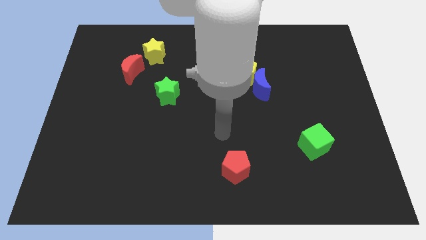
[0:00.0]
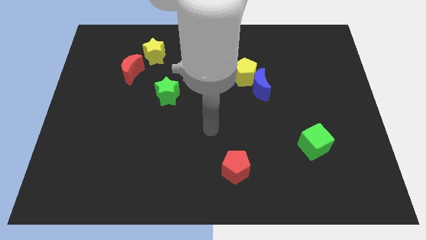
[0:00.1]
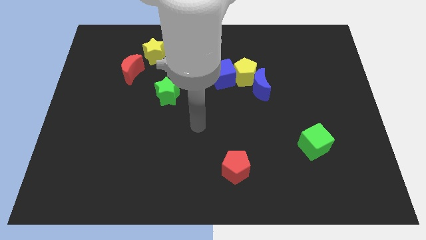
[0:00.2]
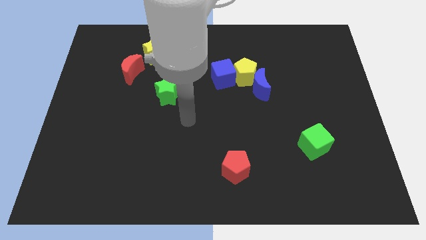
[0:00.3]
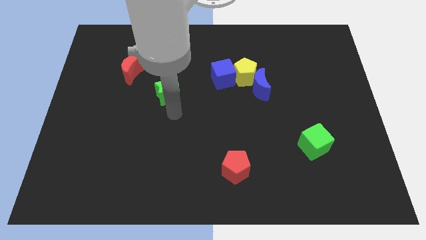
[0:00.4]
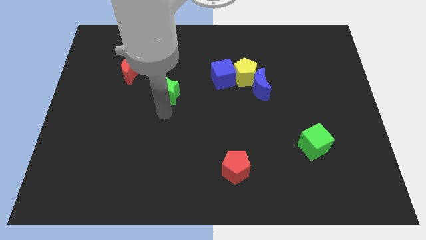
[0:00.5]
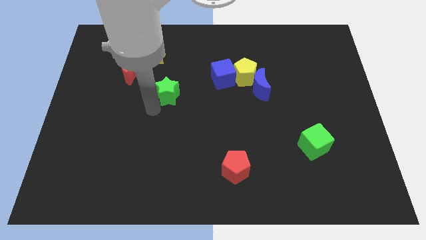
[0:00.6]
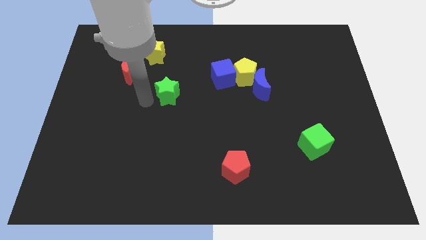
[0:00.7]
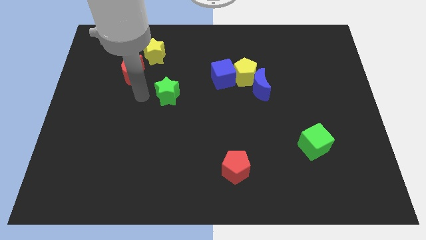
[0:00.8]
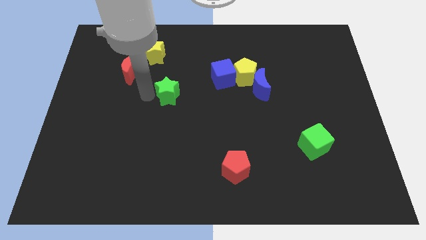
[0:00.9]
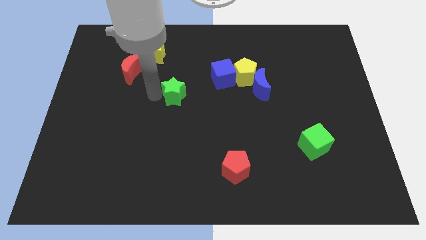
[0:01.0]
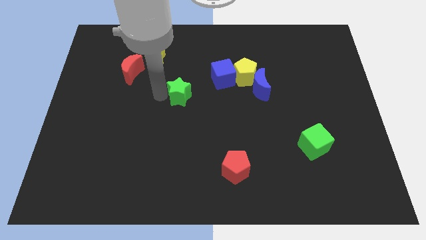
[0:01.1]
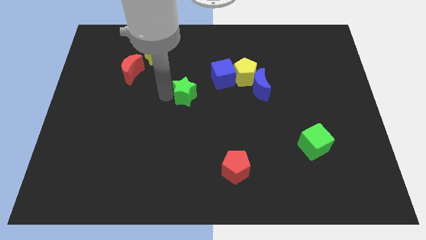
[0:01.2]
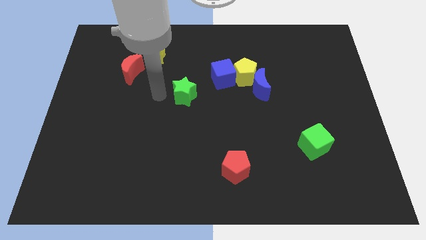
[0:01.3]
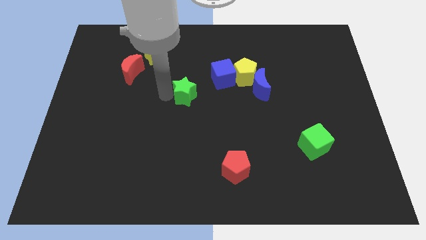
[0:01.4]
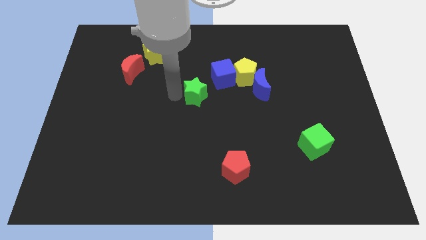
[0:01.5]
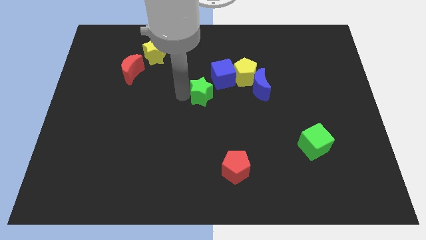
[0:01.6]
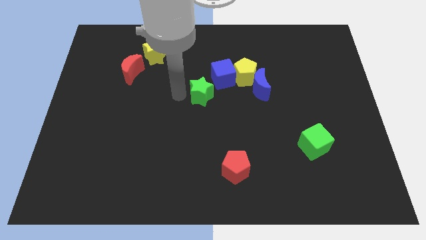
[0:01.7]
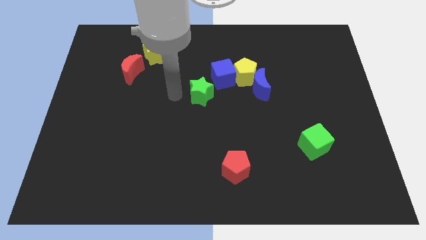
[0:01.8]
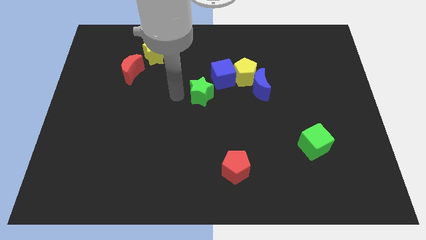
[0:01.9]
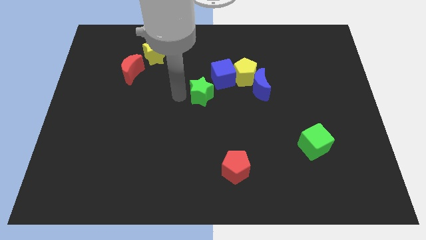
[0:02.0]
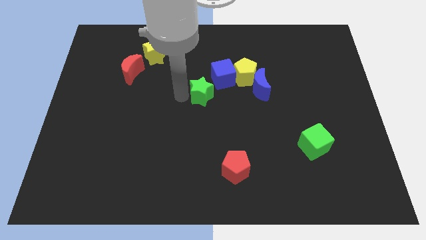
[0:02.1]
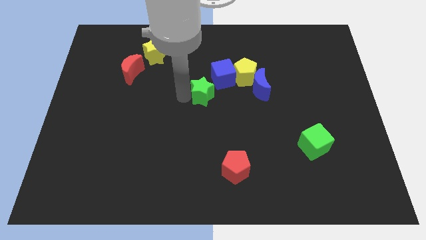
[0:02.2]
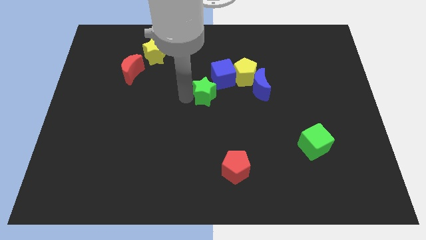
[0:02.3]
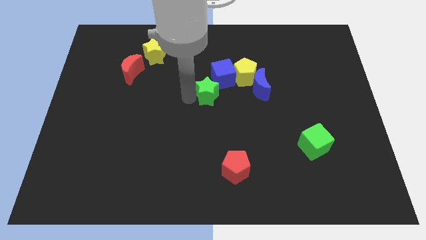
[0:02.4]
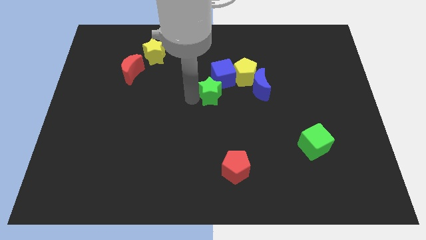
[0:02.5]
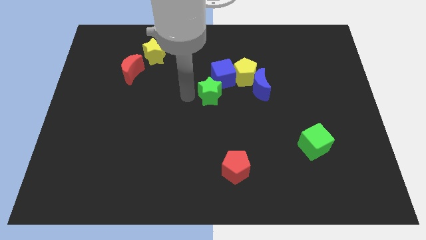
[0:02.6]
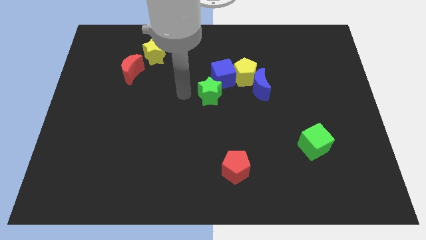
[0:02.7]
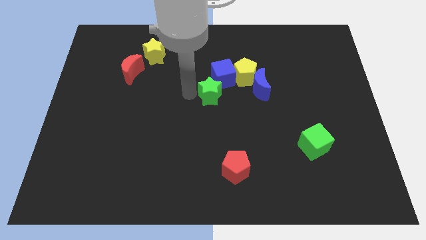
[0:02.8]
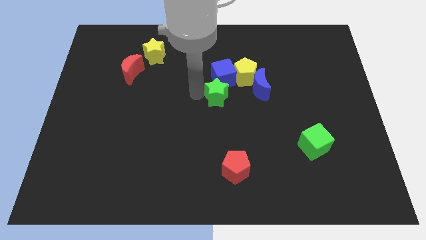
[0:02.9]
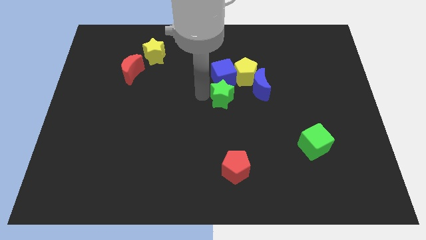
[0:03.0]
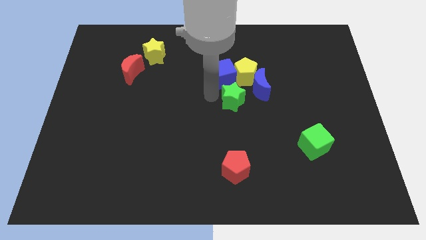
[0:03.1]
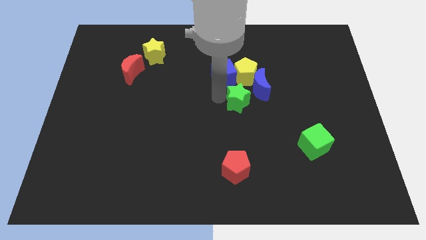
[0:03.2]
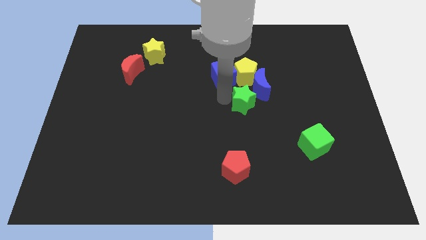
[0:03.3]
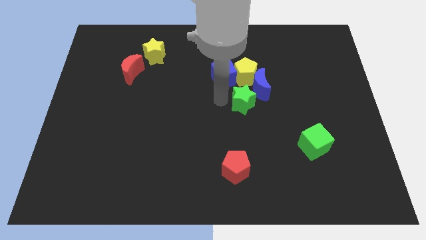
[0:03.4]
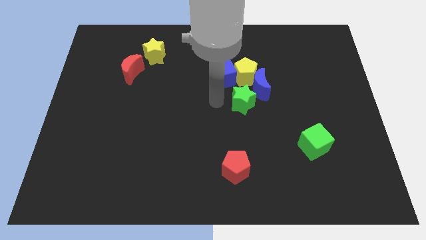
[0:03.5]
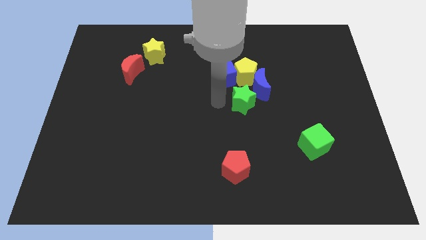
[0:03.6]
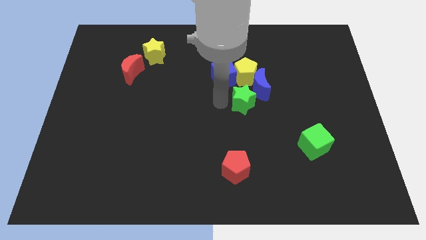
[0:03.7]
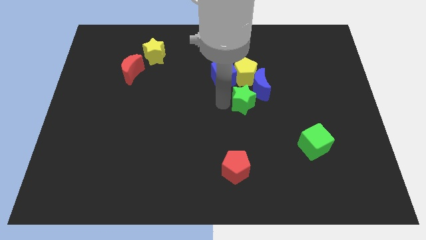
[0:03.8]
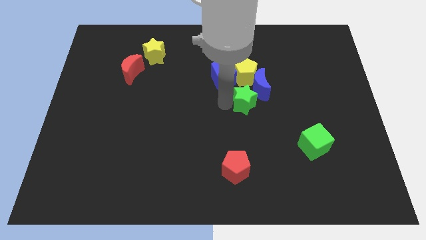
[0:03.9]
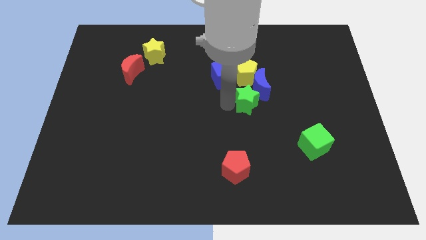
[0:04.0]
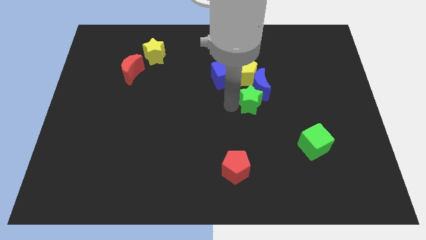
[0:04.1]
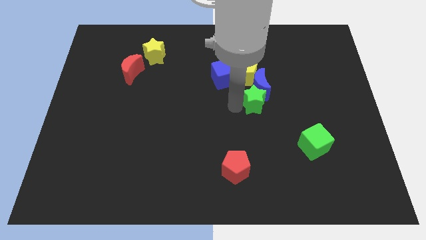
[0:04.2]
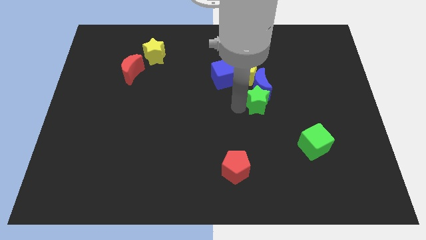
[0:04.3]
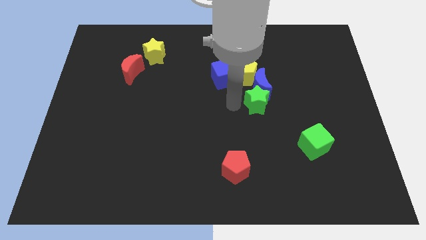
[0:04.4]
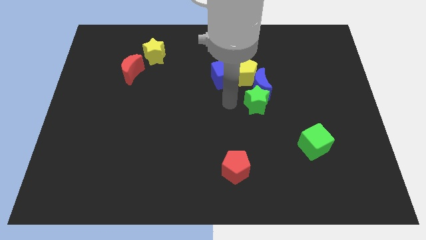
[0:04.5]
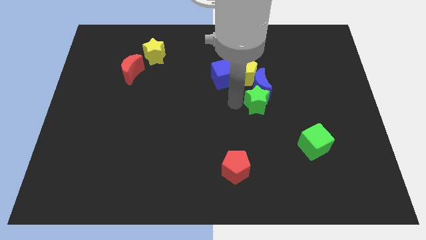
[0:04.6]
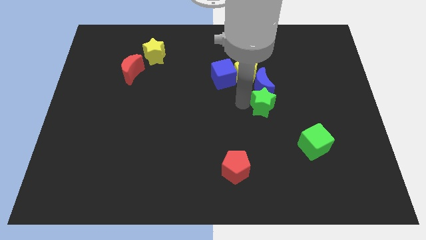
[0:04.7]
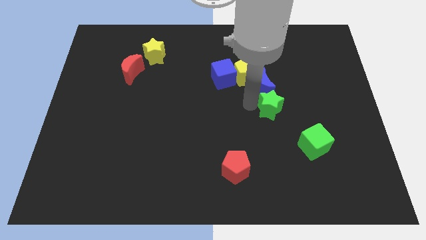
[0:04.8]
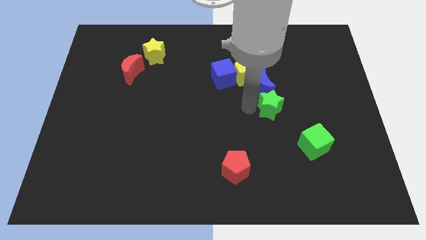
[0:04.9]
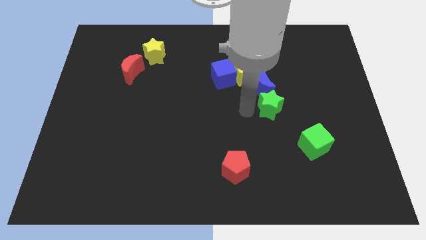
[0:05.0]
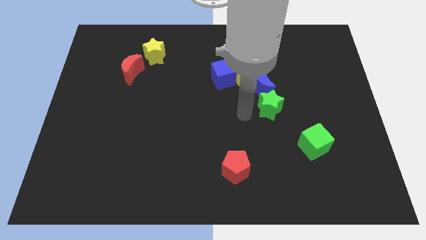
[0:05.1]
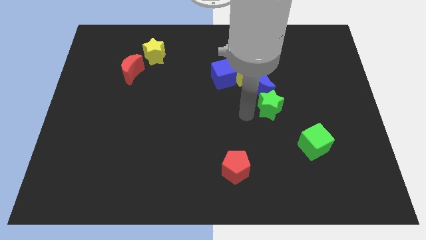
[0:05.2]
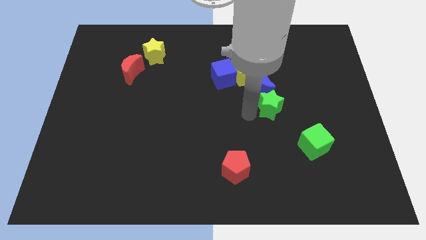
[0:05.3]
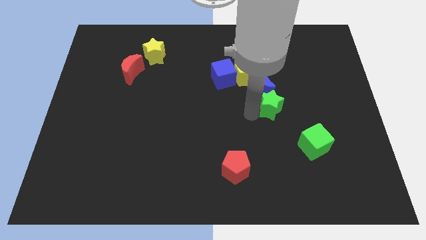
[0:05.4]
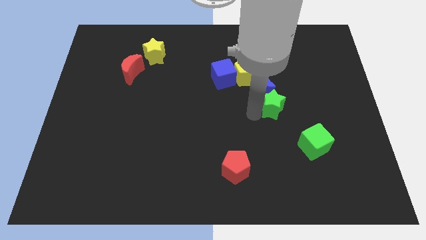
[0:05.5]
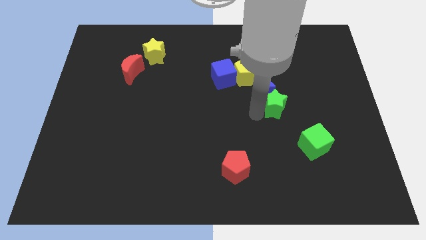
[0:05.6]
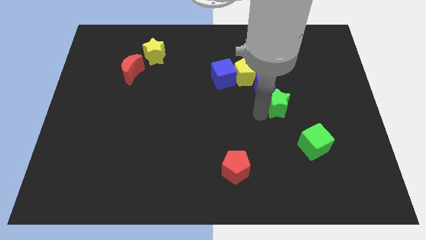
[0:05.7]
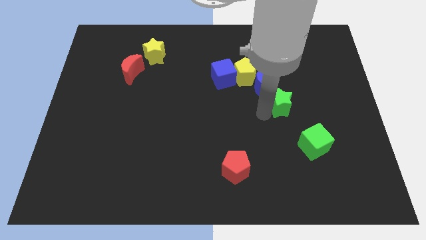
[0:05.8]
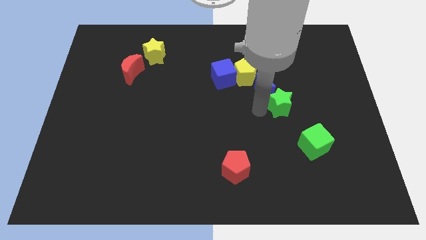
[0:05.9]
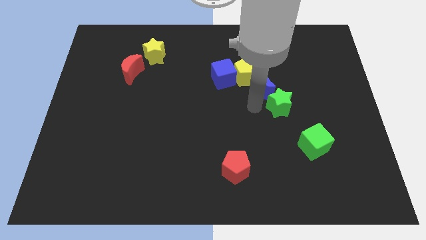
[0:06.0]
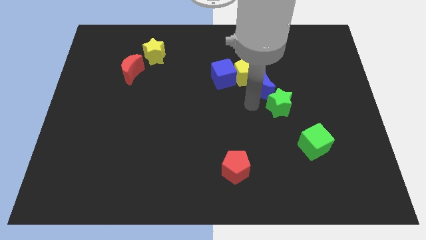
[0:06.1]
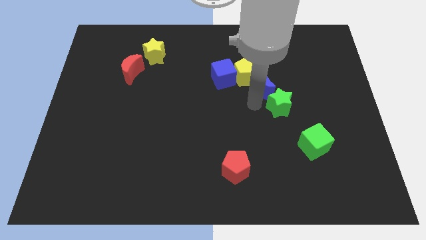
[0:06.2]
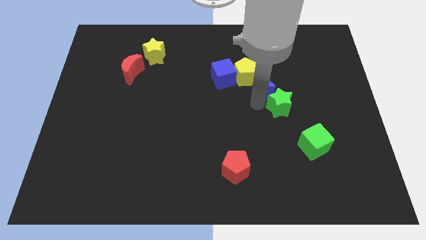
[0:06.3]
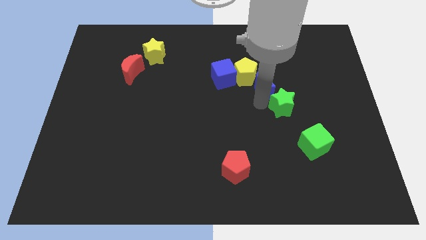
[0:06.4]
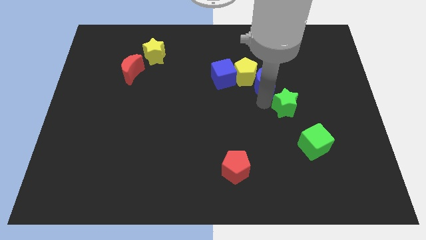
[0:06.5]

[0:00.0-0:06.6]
slide the green star above the green cube

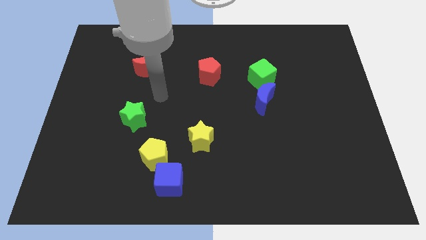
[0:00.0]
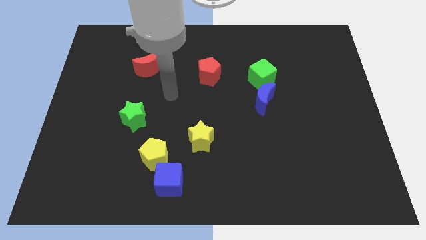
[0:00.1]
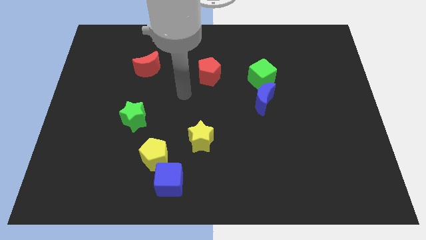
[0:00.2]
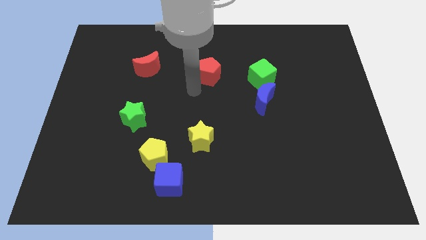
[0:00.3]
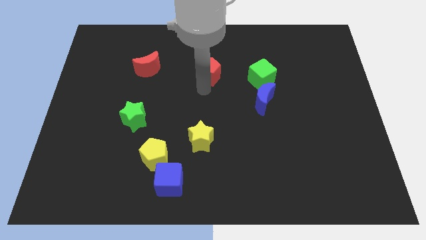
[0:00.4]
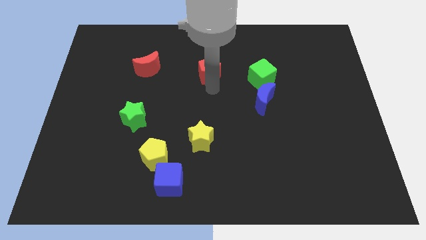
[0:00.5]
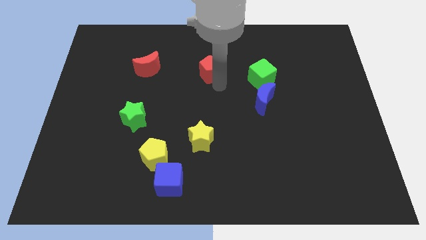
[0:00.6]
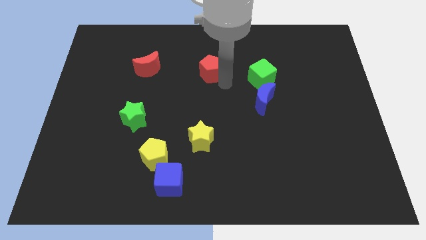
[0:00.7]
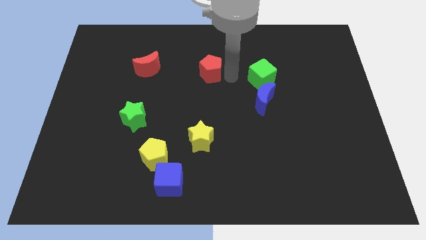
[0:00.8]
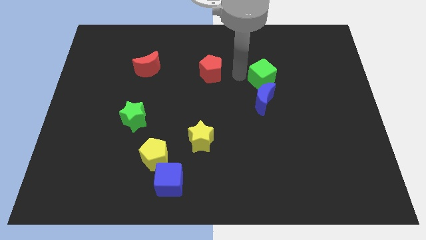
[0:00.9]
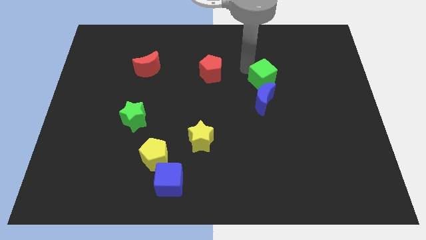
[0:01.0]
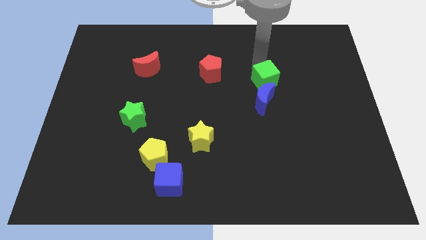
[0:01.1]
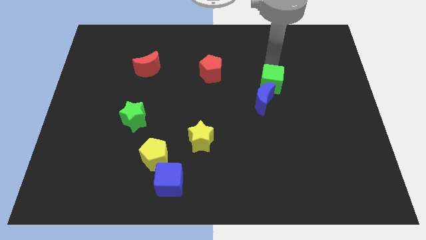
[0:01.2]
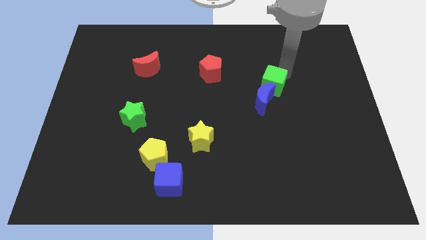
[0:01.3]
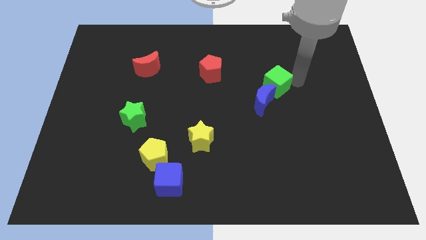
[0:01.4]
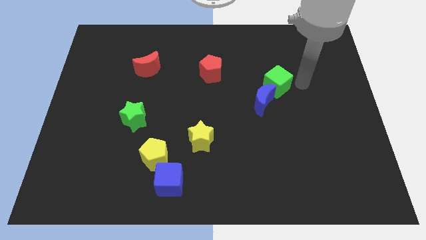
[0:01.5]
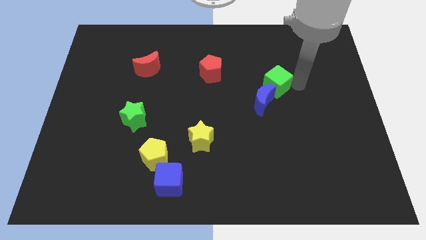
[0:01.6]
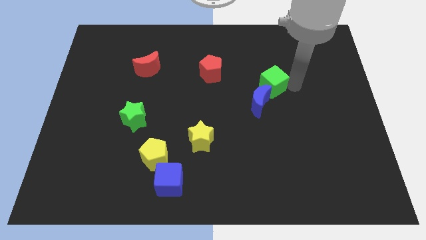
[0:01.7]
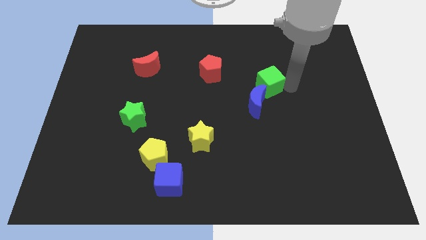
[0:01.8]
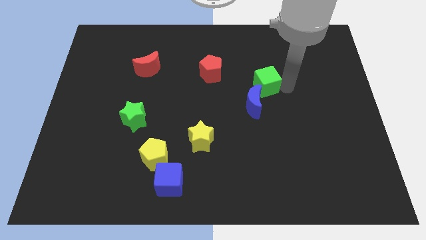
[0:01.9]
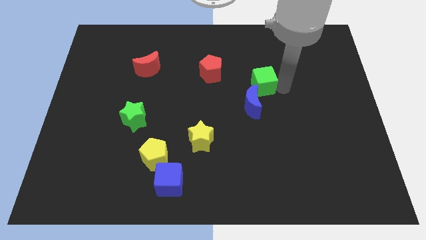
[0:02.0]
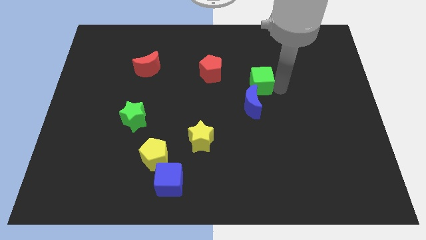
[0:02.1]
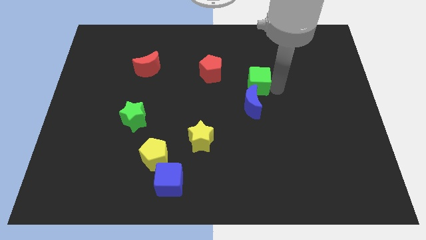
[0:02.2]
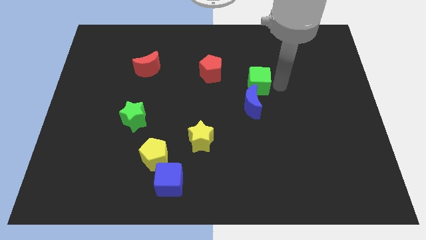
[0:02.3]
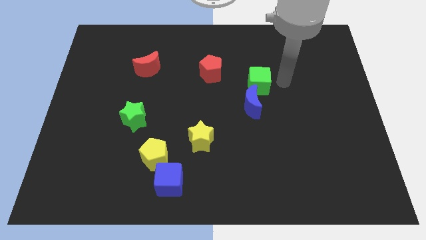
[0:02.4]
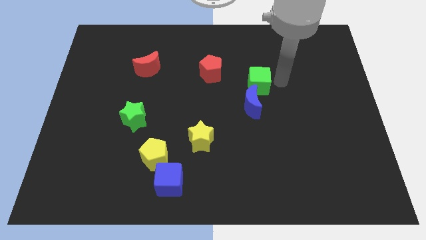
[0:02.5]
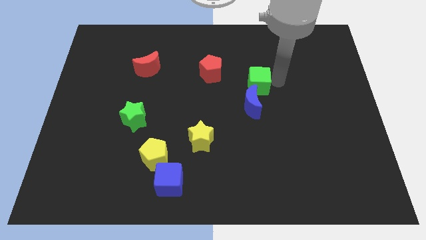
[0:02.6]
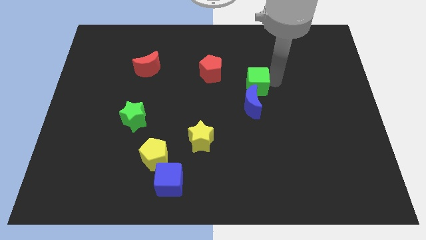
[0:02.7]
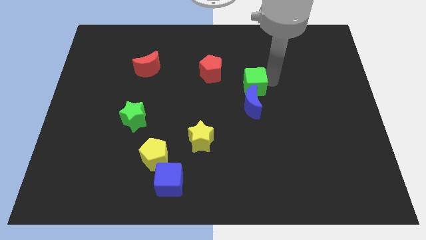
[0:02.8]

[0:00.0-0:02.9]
push the green cube to the bottom right side of the red pentagon
